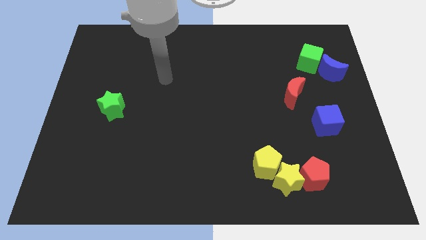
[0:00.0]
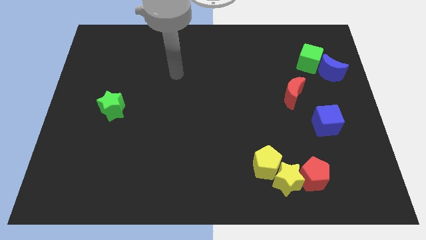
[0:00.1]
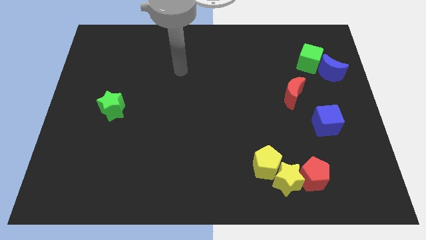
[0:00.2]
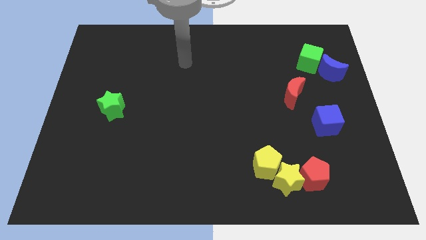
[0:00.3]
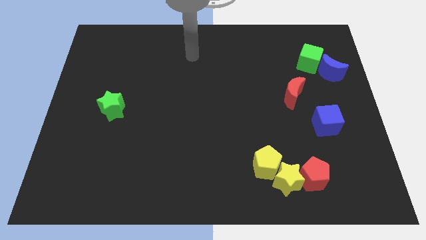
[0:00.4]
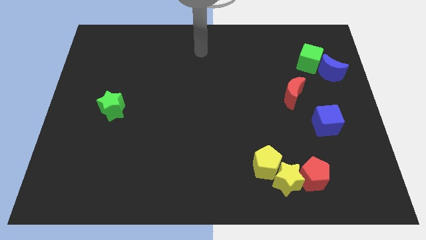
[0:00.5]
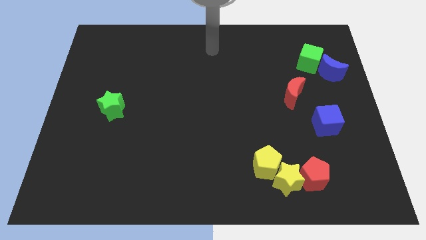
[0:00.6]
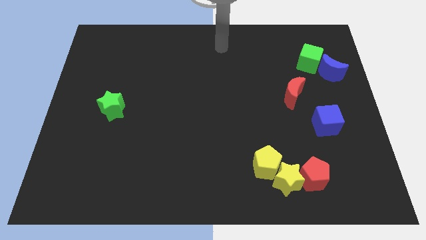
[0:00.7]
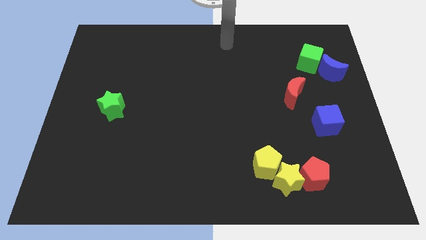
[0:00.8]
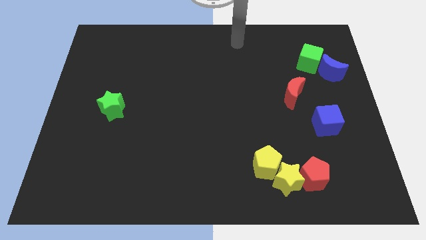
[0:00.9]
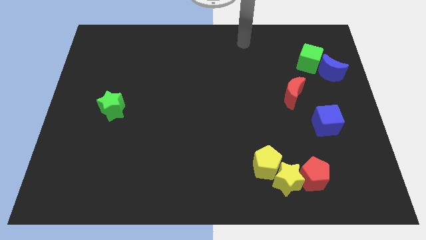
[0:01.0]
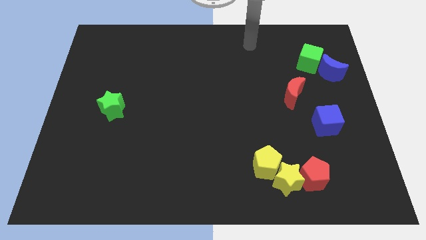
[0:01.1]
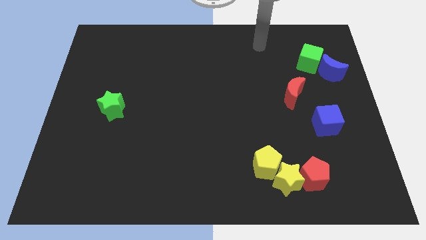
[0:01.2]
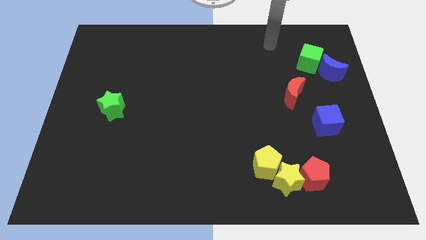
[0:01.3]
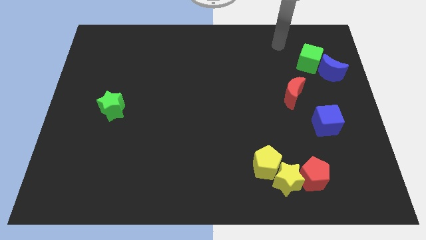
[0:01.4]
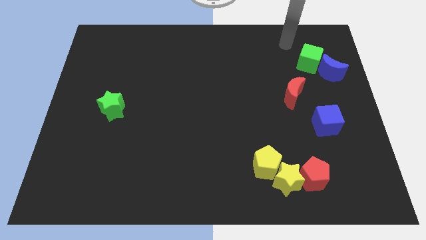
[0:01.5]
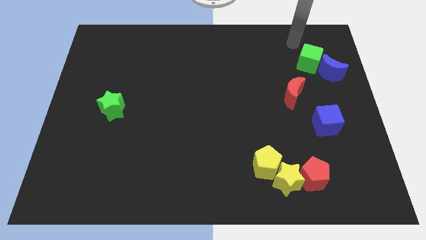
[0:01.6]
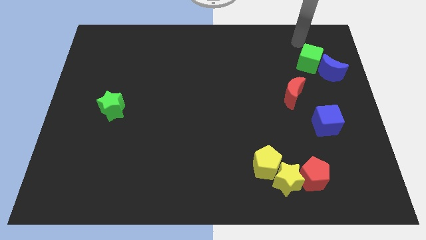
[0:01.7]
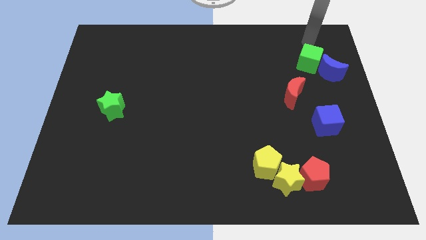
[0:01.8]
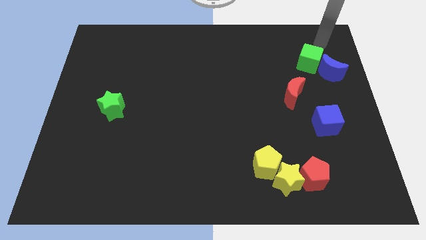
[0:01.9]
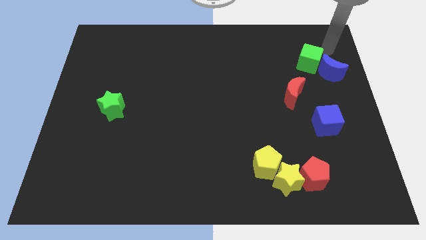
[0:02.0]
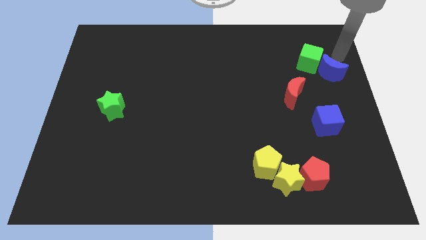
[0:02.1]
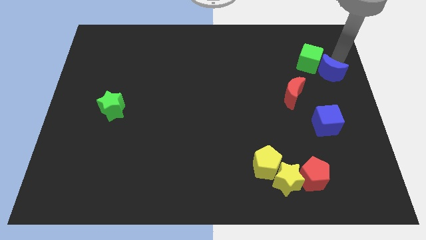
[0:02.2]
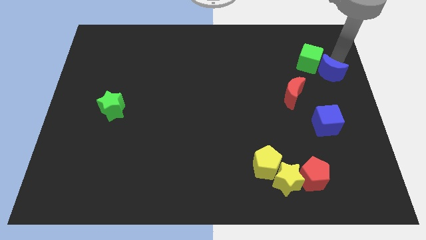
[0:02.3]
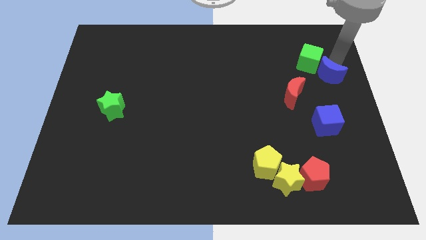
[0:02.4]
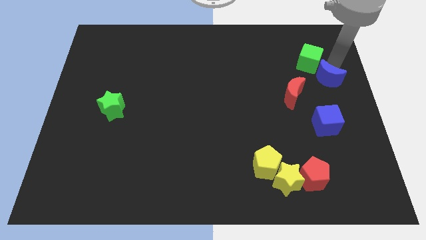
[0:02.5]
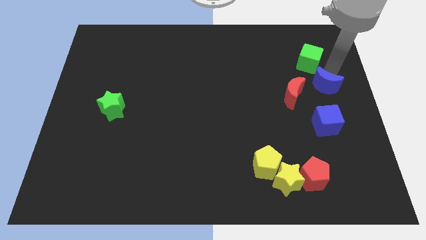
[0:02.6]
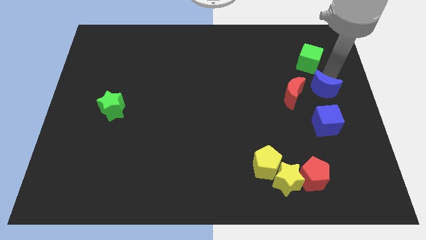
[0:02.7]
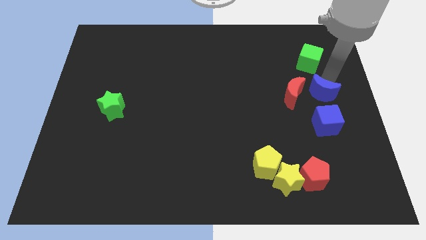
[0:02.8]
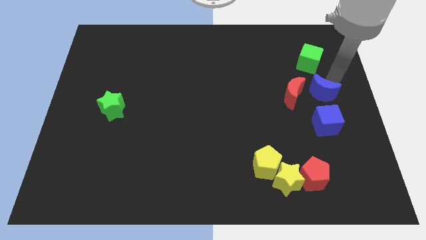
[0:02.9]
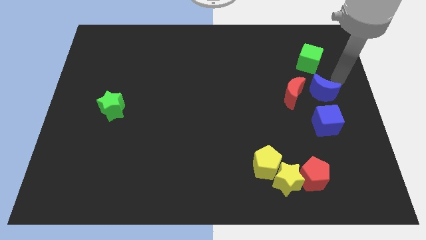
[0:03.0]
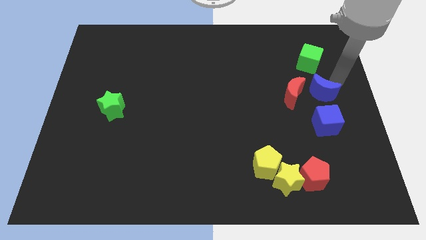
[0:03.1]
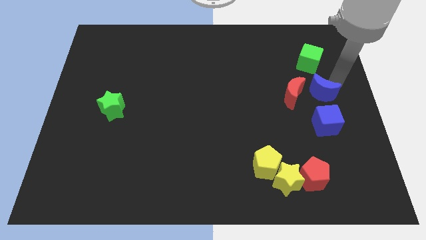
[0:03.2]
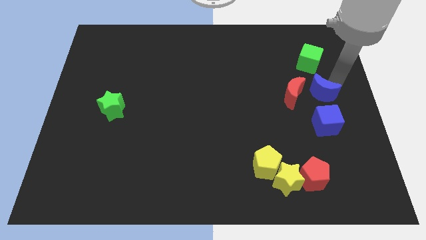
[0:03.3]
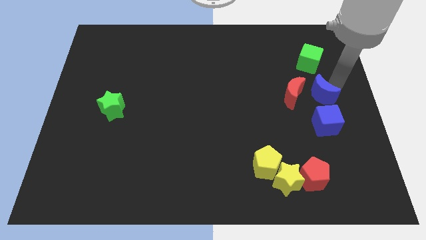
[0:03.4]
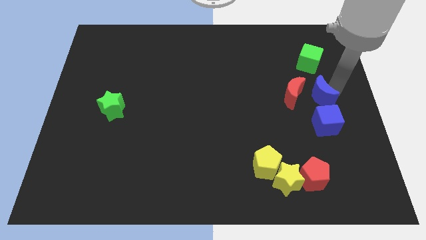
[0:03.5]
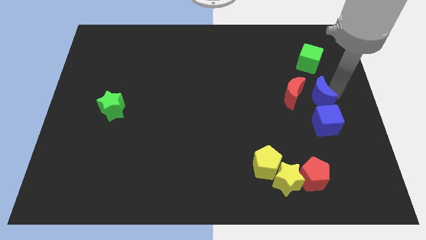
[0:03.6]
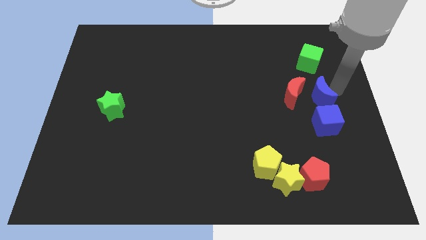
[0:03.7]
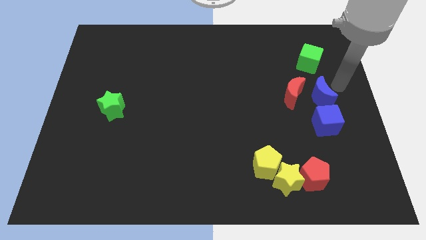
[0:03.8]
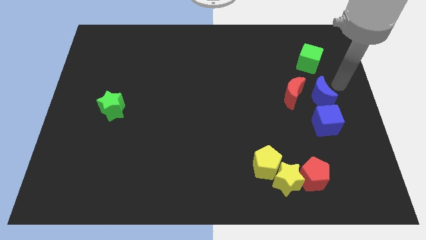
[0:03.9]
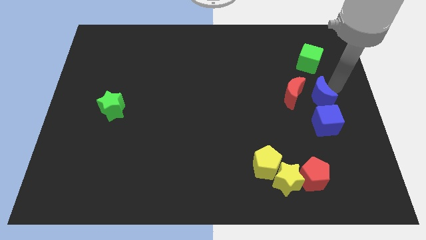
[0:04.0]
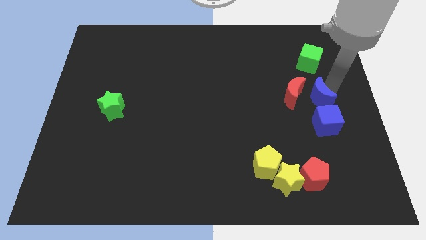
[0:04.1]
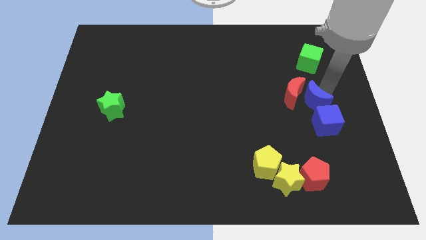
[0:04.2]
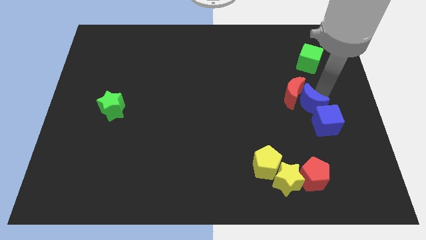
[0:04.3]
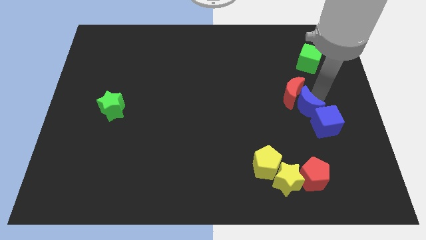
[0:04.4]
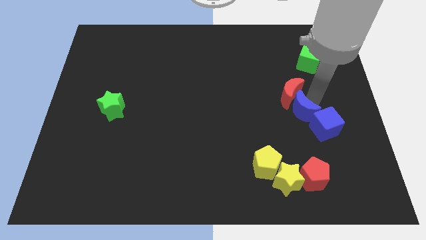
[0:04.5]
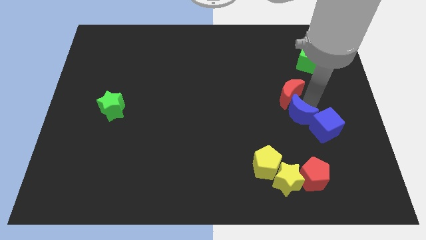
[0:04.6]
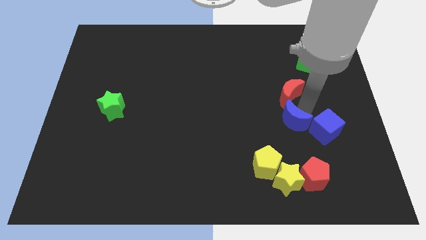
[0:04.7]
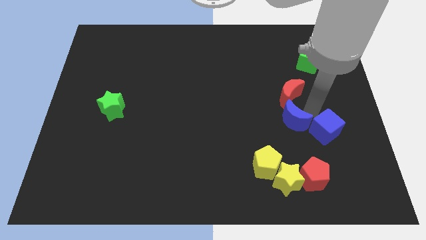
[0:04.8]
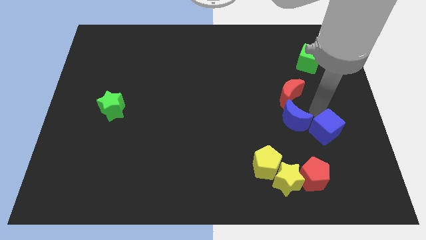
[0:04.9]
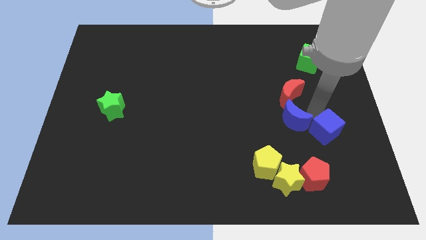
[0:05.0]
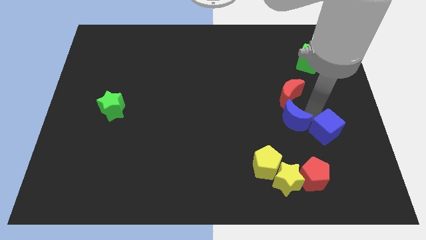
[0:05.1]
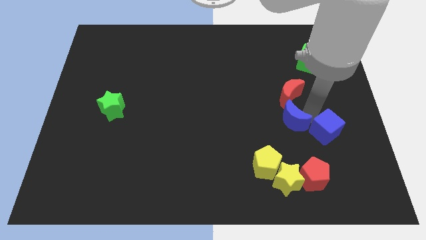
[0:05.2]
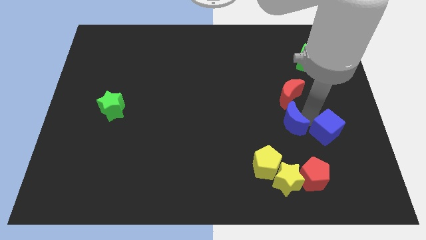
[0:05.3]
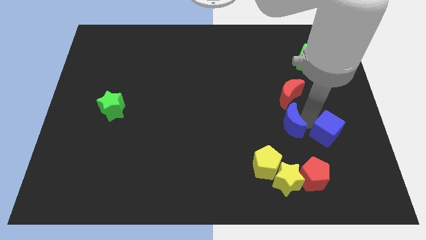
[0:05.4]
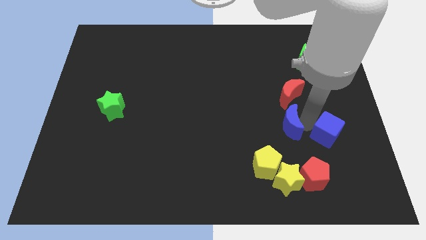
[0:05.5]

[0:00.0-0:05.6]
push the blue moon downwards and left diagonally

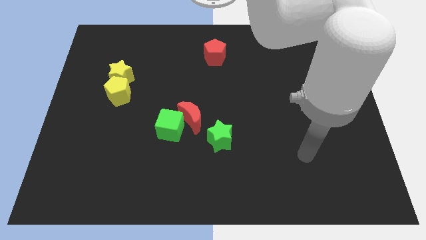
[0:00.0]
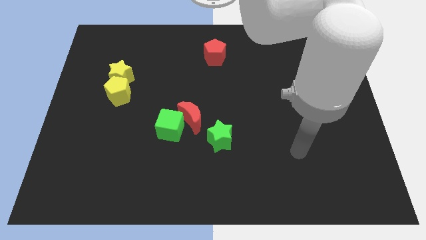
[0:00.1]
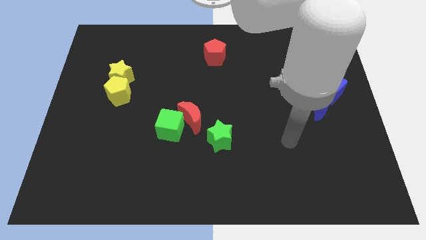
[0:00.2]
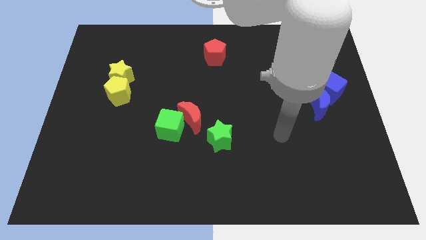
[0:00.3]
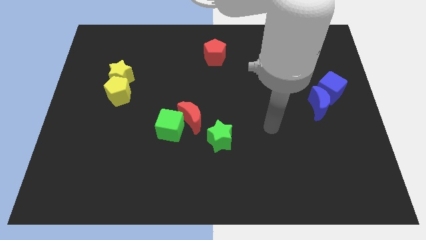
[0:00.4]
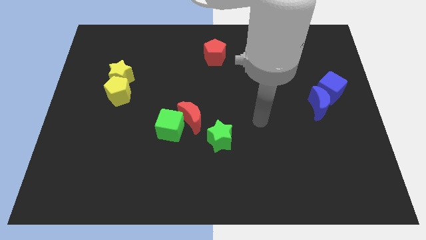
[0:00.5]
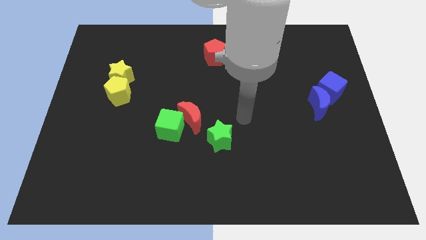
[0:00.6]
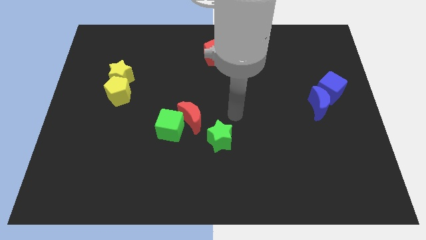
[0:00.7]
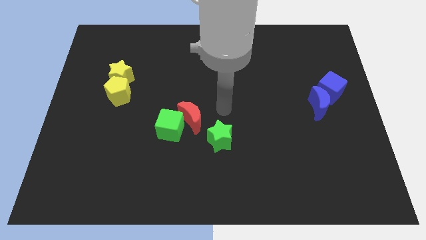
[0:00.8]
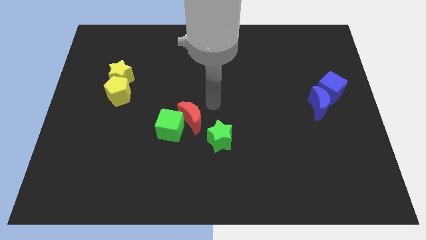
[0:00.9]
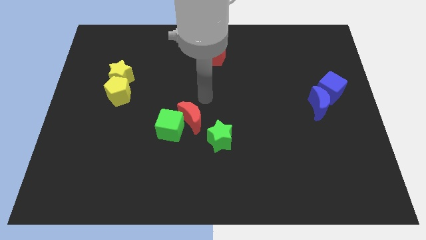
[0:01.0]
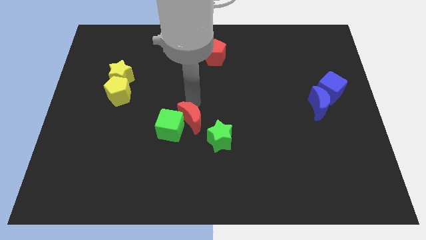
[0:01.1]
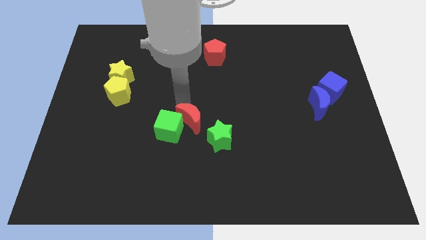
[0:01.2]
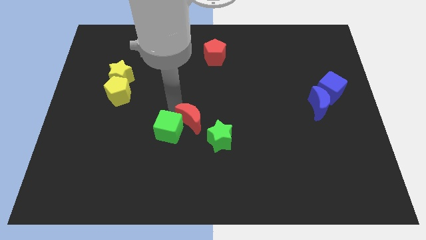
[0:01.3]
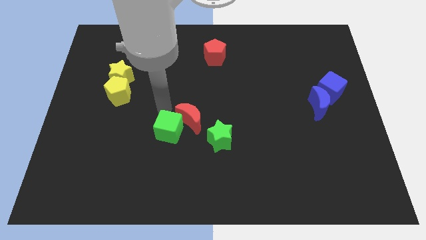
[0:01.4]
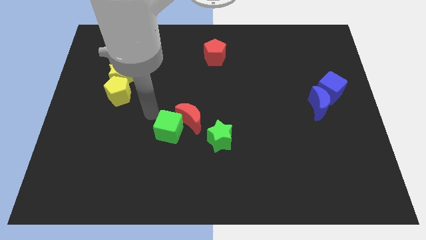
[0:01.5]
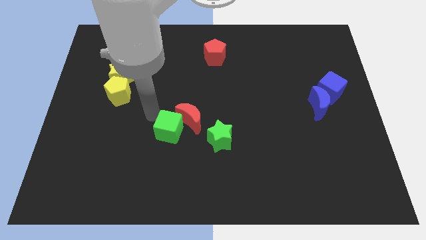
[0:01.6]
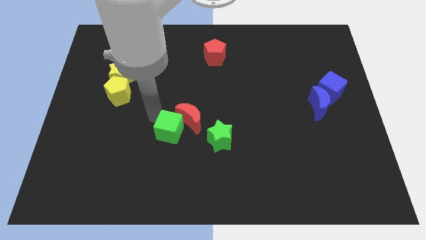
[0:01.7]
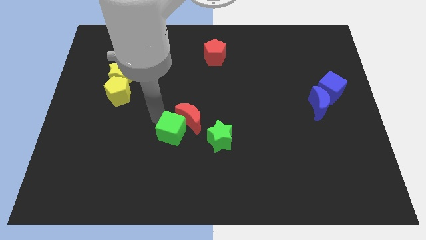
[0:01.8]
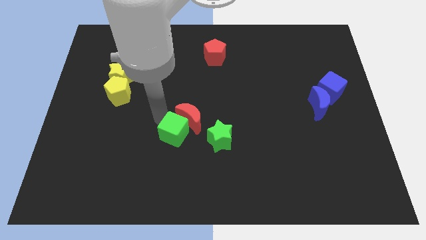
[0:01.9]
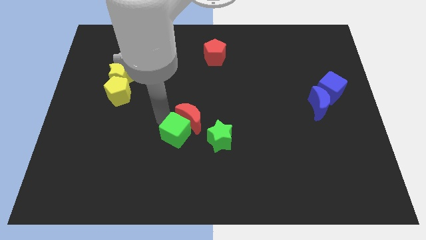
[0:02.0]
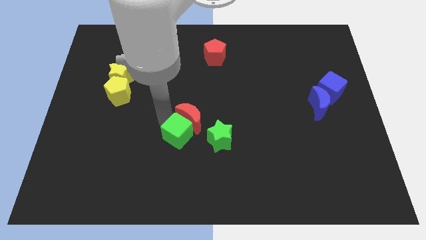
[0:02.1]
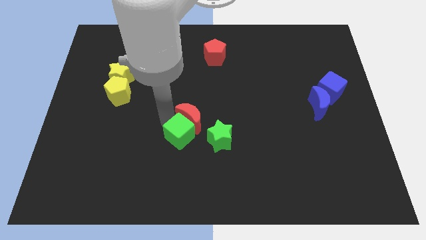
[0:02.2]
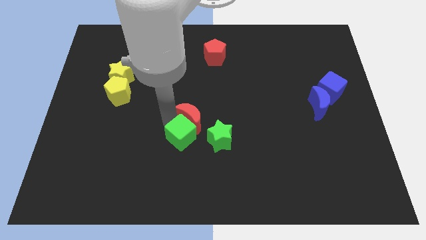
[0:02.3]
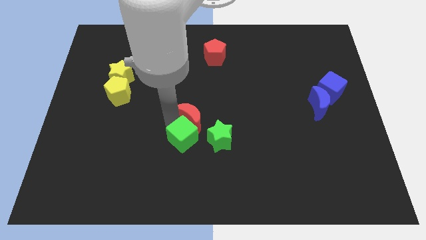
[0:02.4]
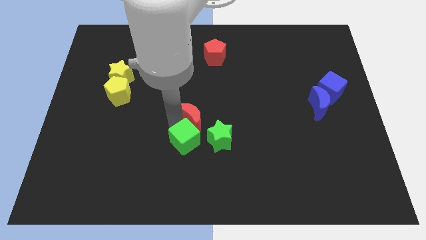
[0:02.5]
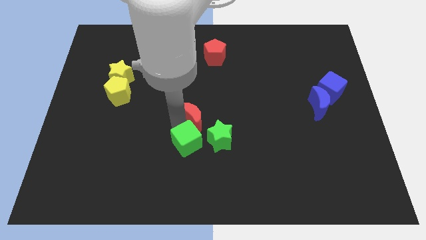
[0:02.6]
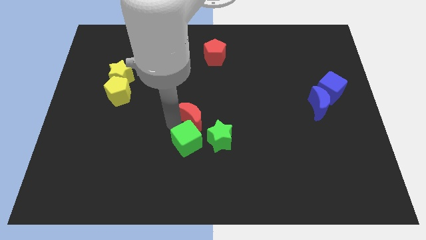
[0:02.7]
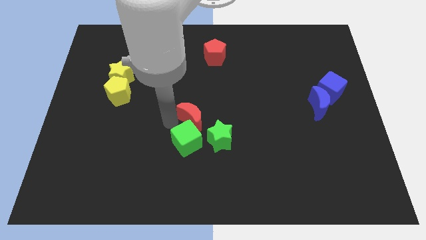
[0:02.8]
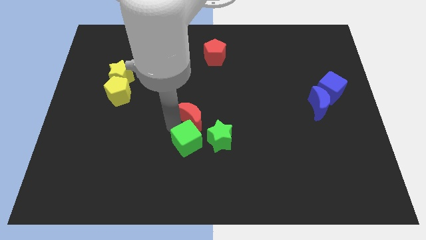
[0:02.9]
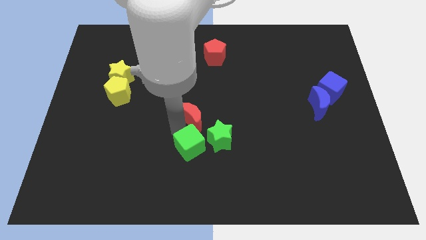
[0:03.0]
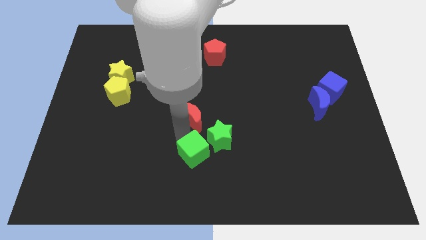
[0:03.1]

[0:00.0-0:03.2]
slightly slide the green cube down and then to the right
